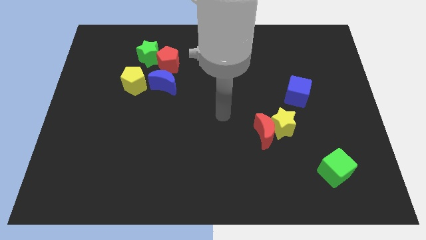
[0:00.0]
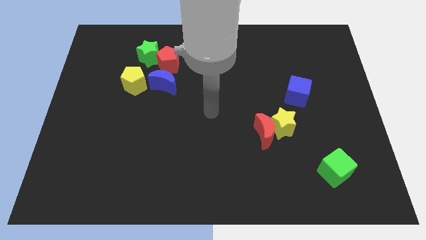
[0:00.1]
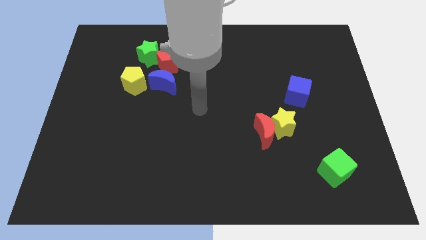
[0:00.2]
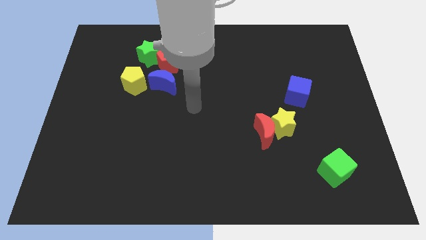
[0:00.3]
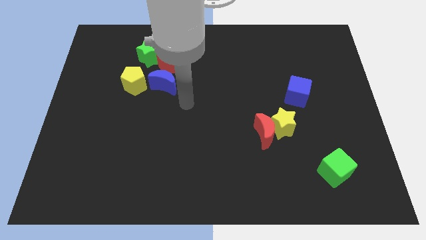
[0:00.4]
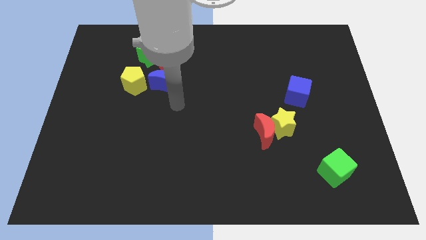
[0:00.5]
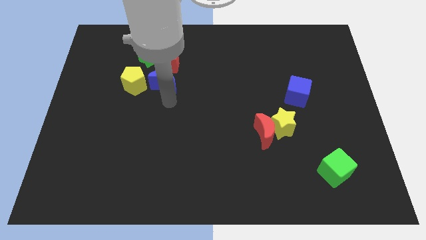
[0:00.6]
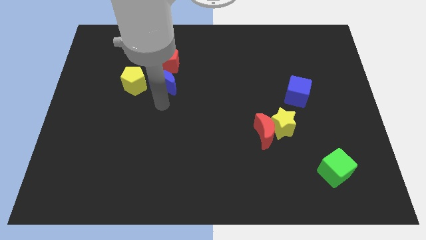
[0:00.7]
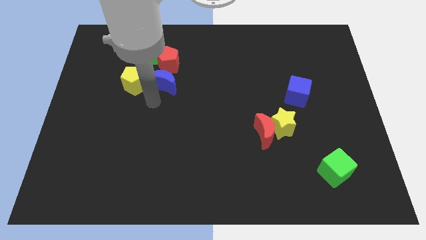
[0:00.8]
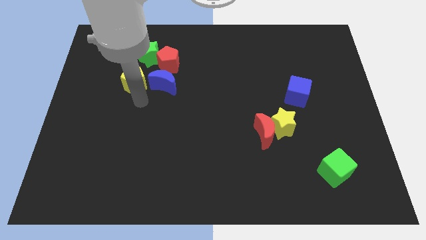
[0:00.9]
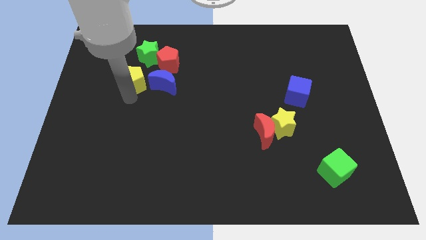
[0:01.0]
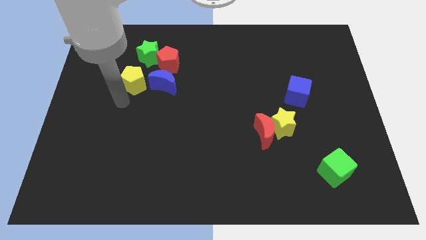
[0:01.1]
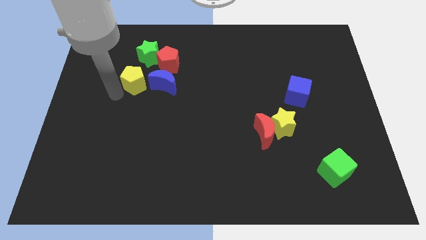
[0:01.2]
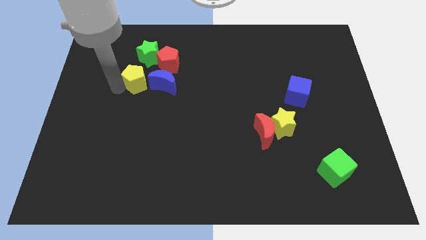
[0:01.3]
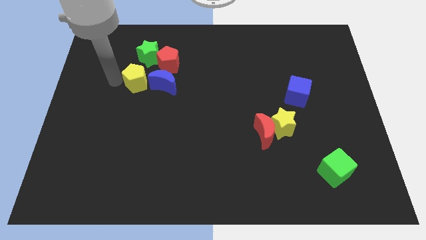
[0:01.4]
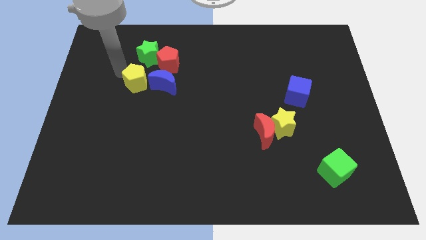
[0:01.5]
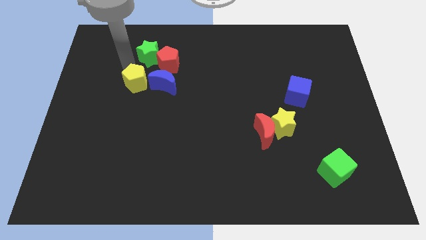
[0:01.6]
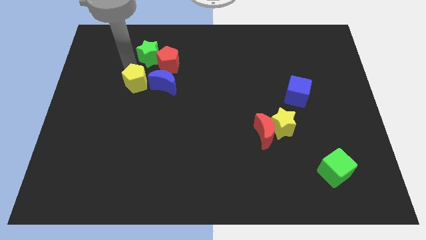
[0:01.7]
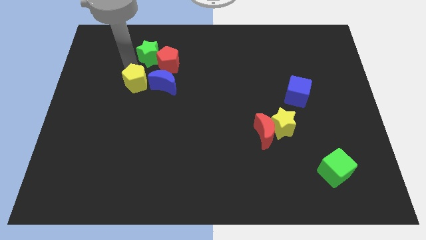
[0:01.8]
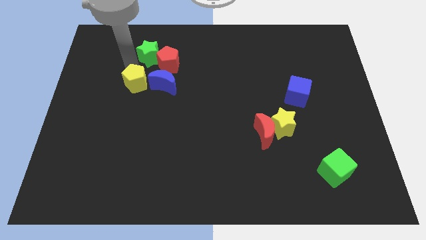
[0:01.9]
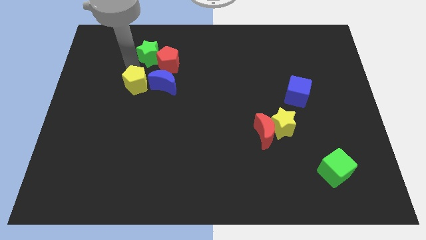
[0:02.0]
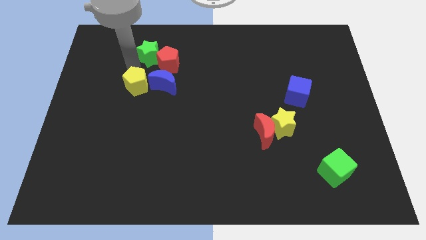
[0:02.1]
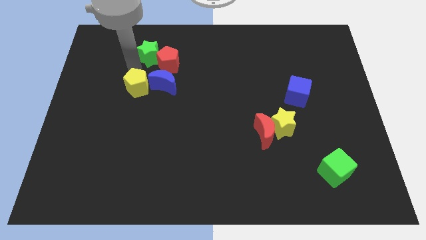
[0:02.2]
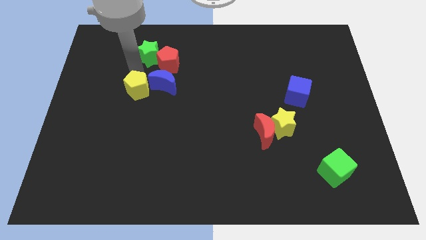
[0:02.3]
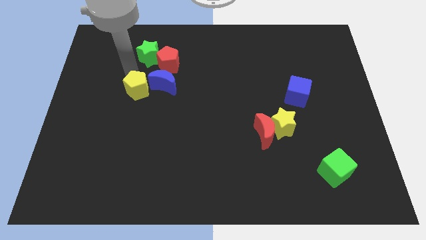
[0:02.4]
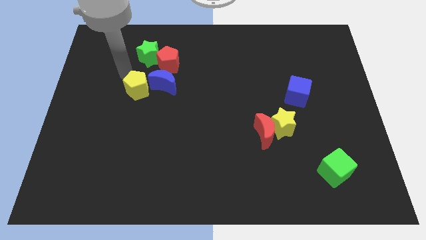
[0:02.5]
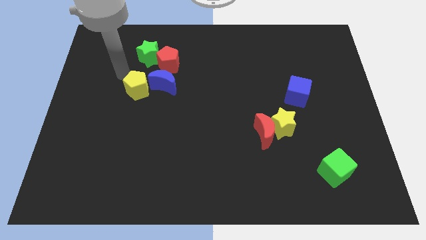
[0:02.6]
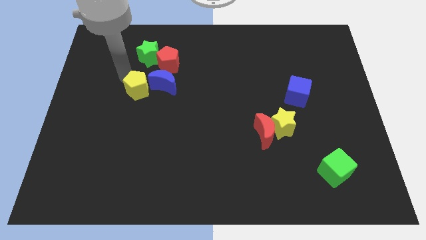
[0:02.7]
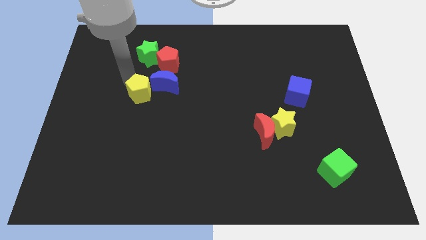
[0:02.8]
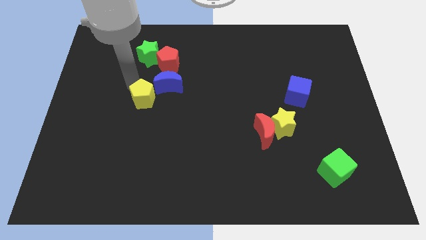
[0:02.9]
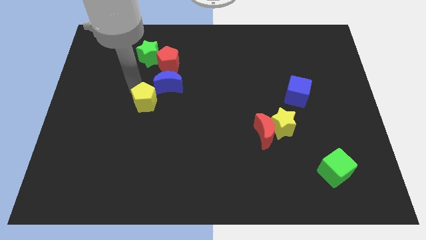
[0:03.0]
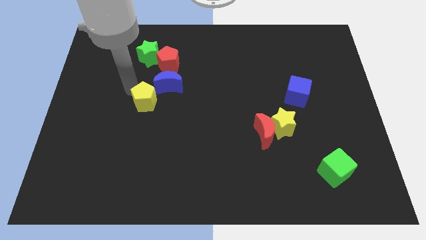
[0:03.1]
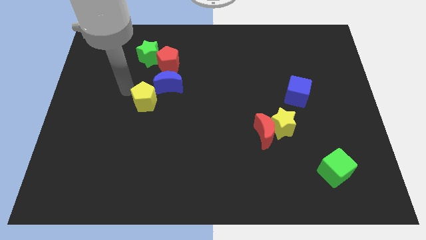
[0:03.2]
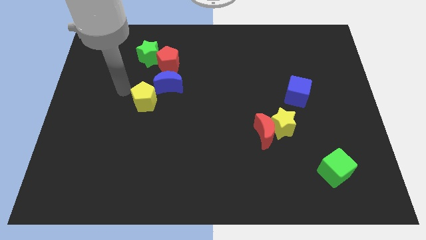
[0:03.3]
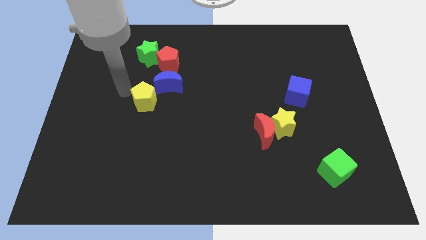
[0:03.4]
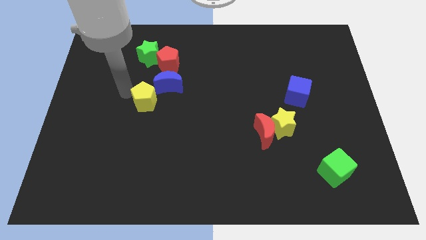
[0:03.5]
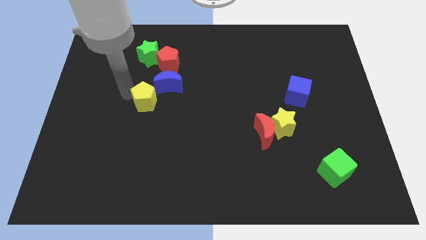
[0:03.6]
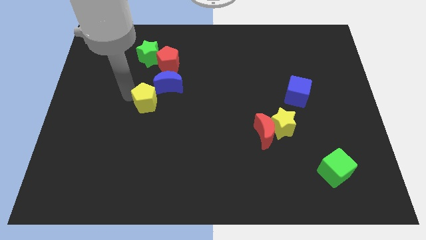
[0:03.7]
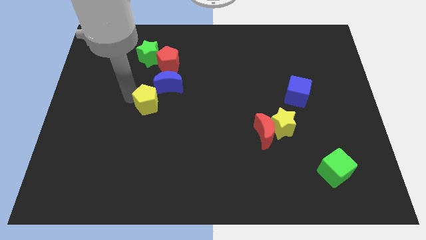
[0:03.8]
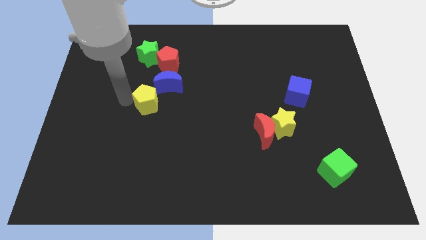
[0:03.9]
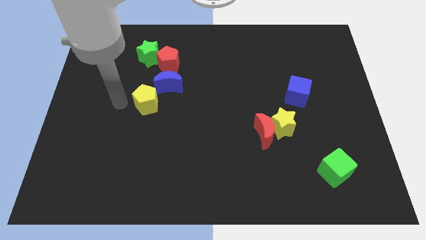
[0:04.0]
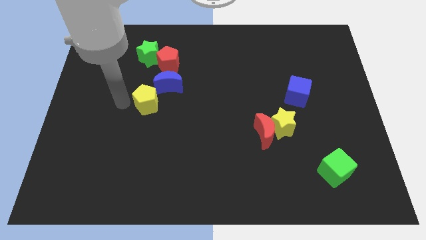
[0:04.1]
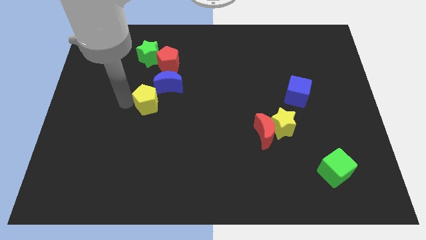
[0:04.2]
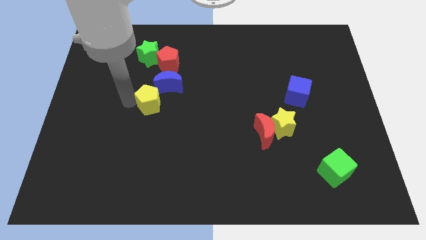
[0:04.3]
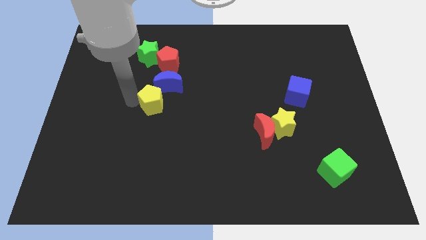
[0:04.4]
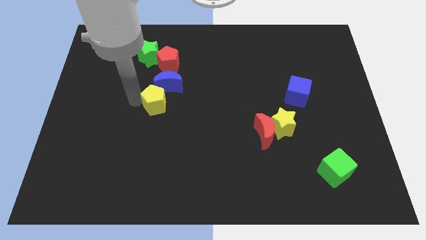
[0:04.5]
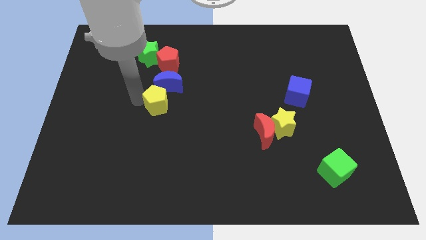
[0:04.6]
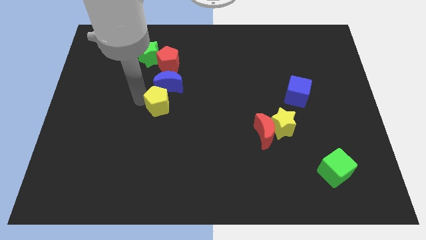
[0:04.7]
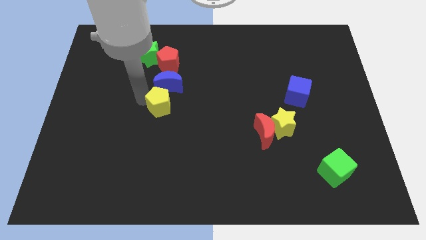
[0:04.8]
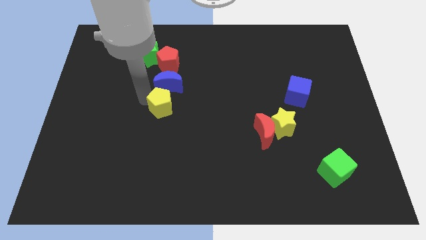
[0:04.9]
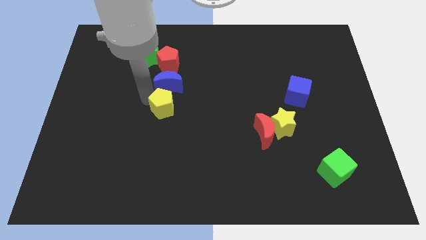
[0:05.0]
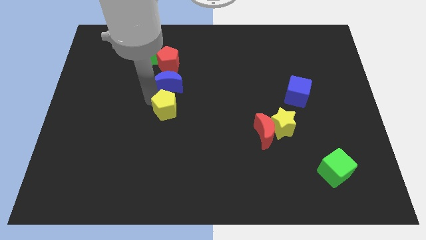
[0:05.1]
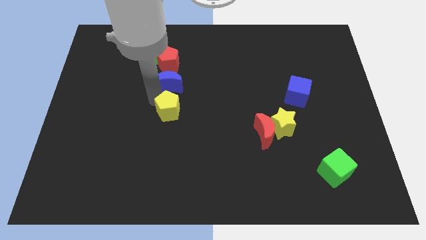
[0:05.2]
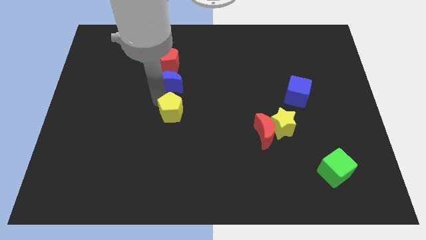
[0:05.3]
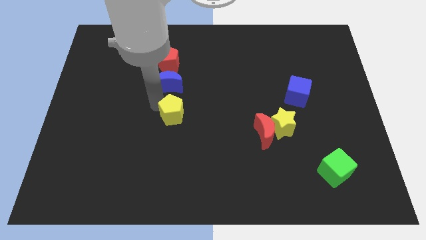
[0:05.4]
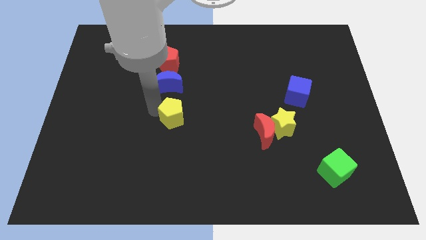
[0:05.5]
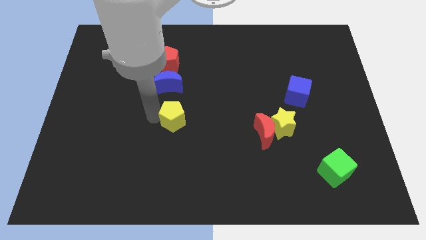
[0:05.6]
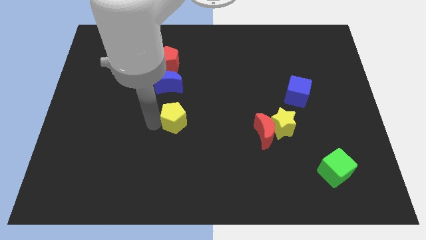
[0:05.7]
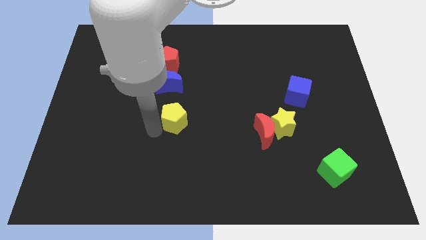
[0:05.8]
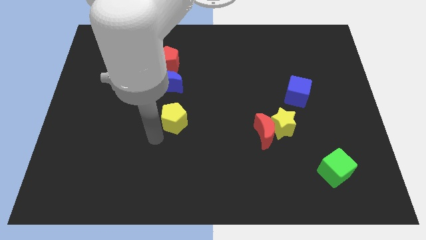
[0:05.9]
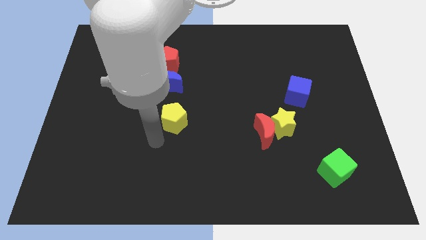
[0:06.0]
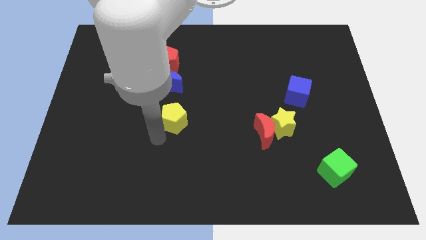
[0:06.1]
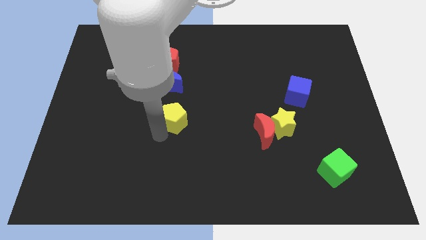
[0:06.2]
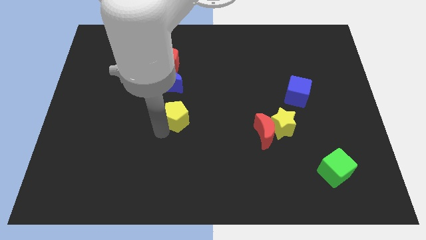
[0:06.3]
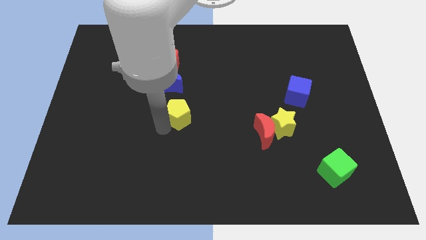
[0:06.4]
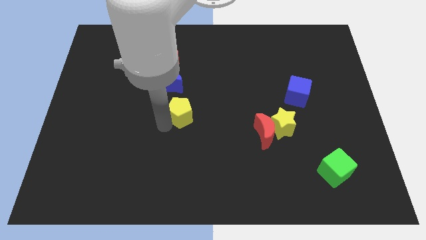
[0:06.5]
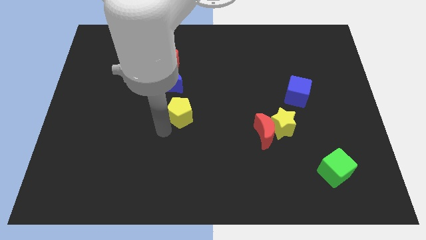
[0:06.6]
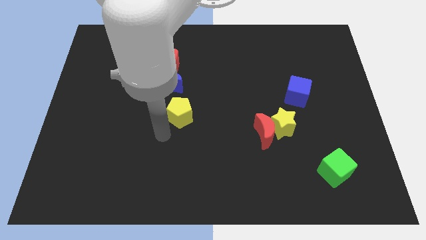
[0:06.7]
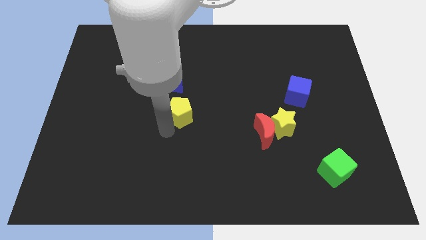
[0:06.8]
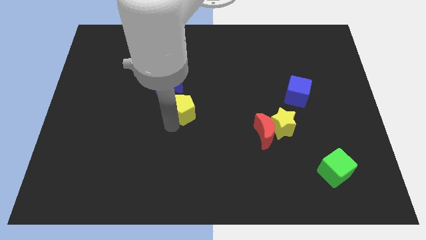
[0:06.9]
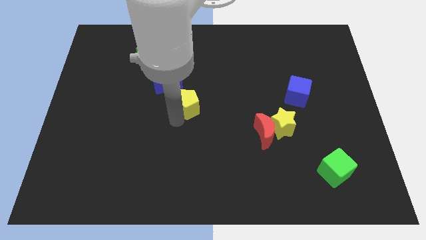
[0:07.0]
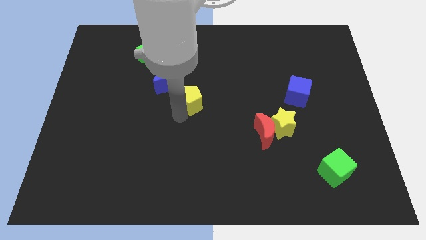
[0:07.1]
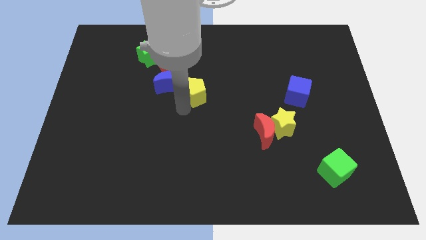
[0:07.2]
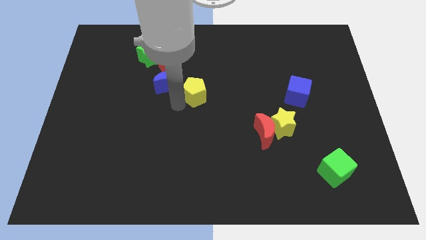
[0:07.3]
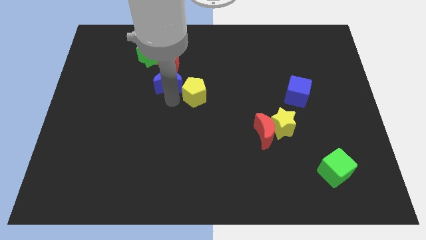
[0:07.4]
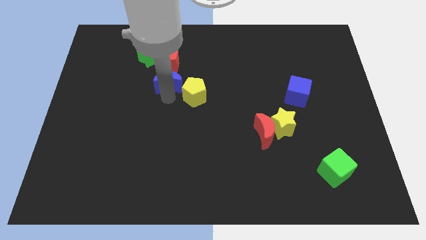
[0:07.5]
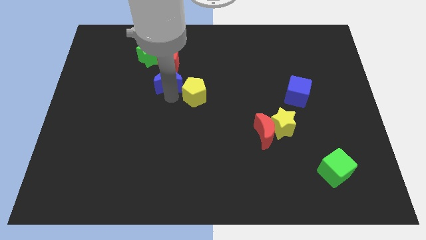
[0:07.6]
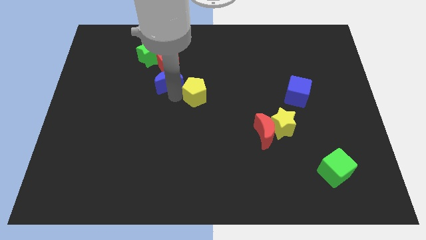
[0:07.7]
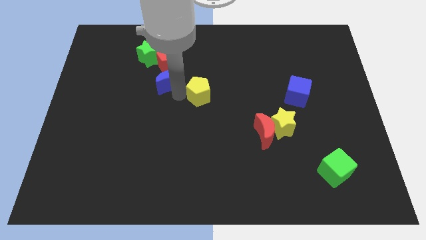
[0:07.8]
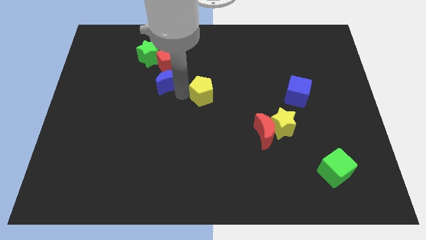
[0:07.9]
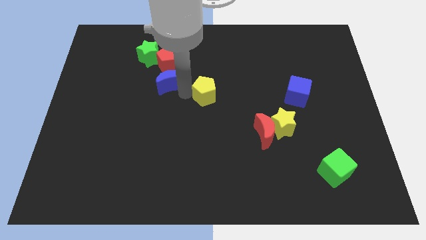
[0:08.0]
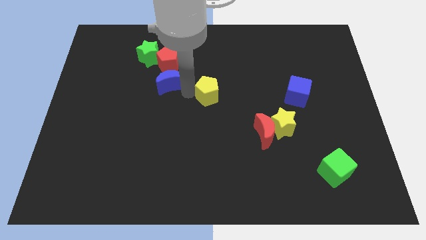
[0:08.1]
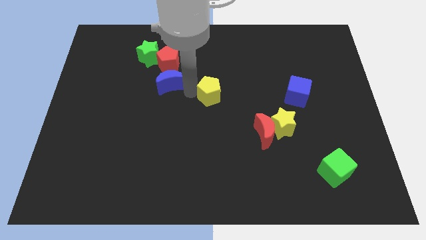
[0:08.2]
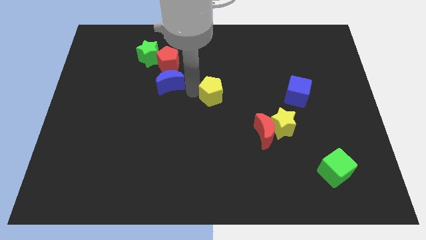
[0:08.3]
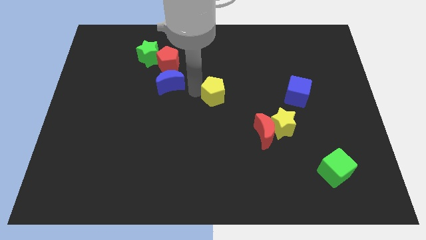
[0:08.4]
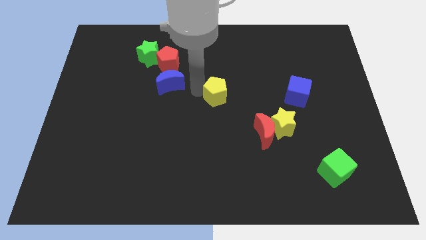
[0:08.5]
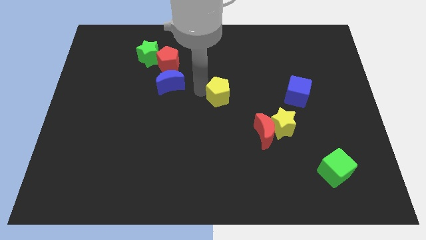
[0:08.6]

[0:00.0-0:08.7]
push the yellow pentagon right
